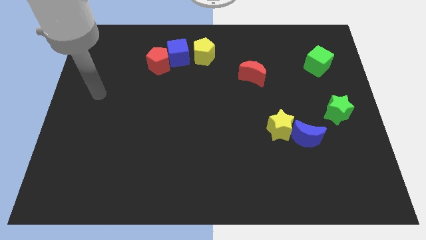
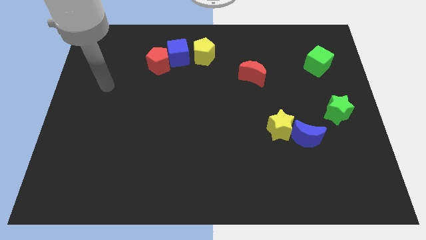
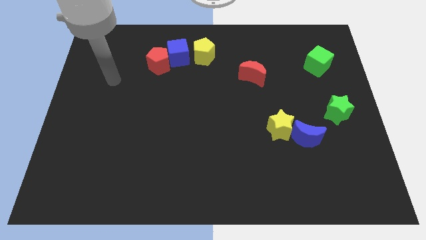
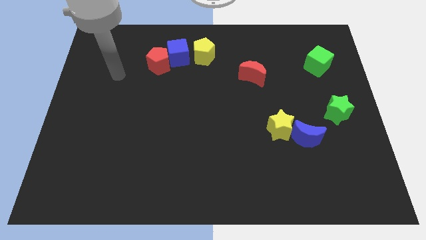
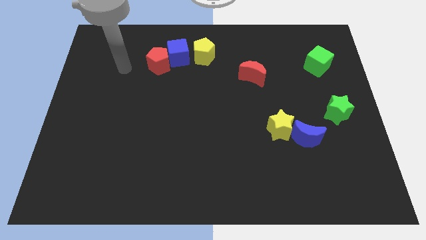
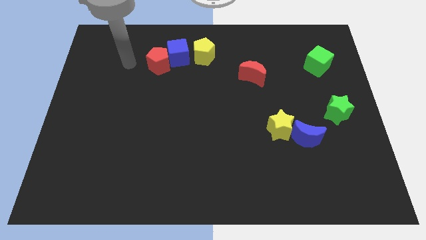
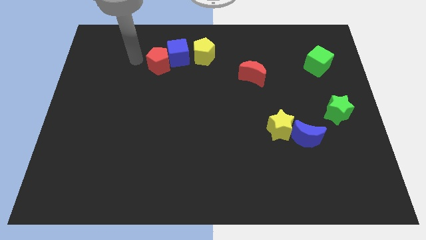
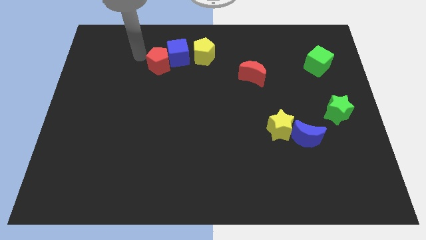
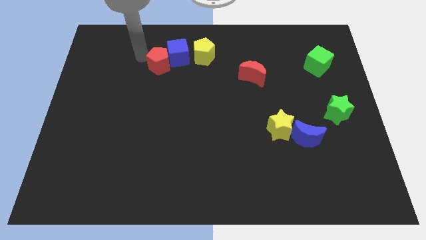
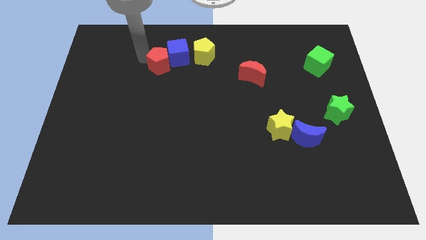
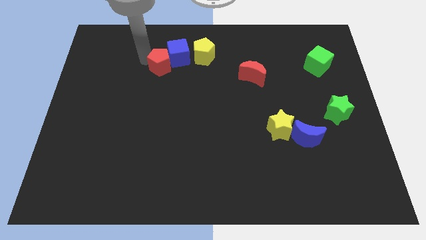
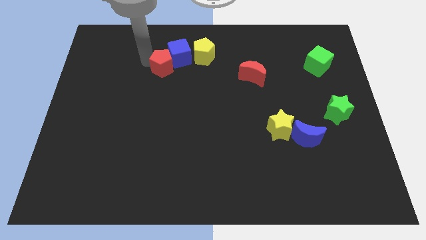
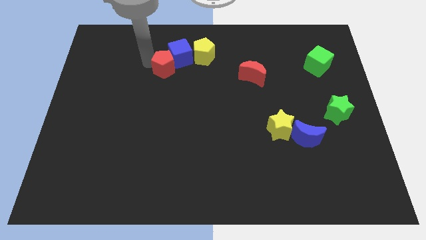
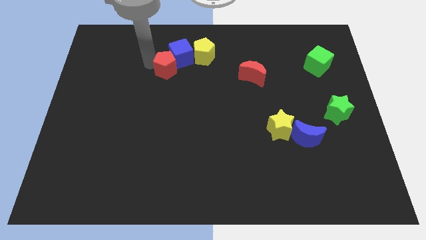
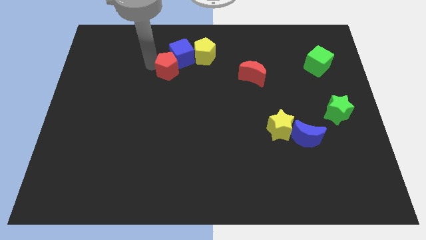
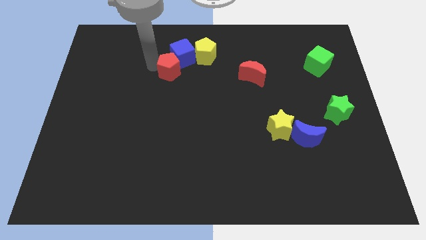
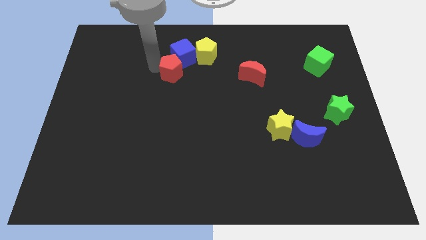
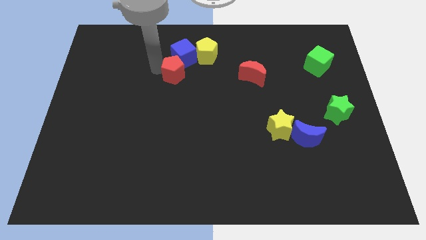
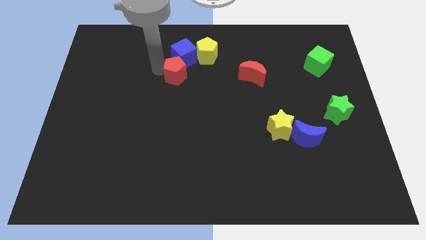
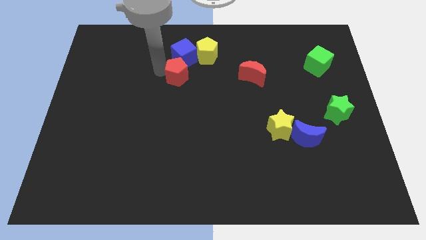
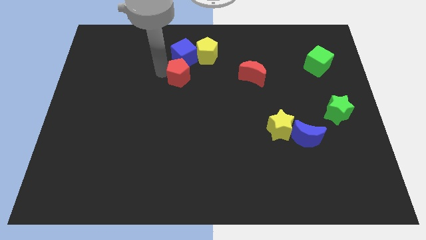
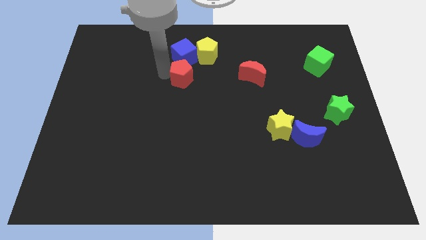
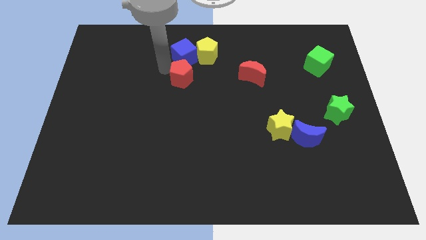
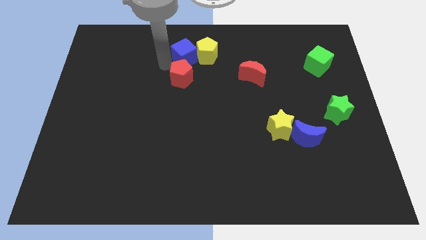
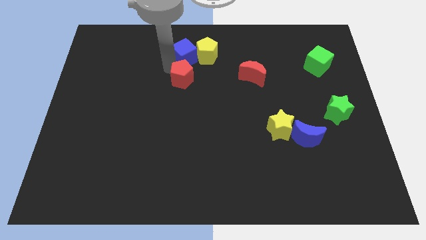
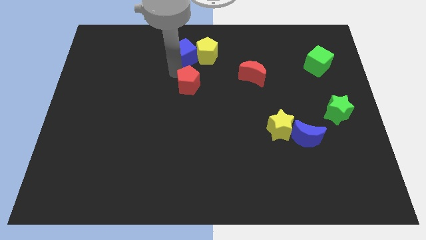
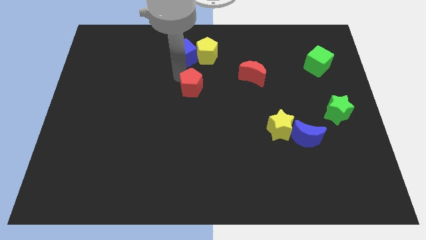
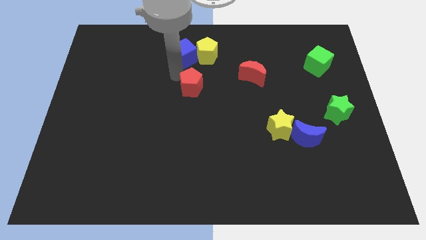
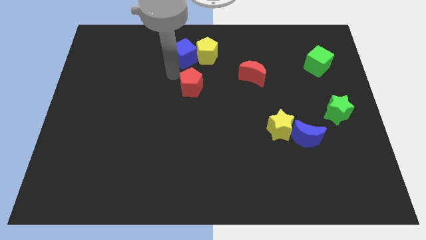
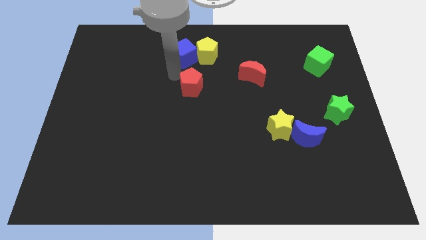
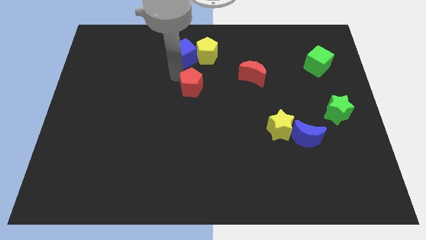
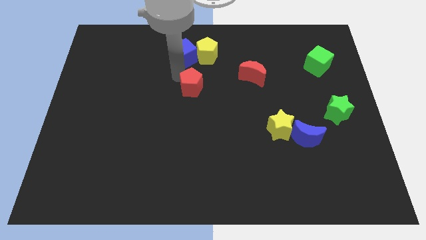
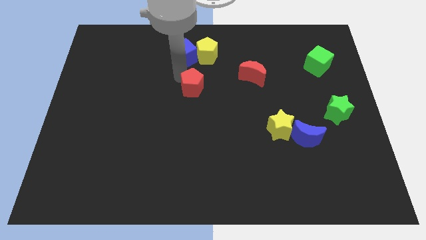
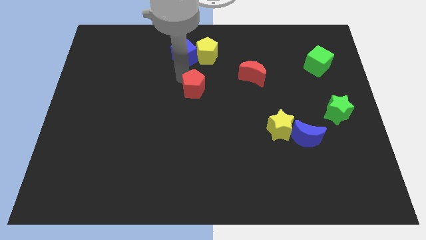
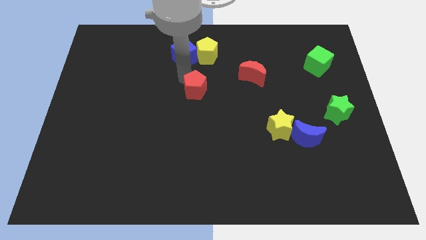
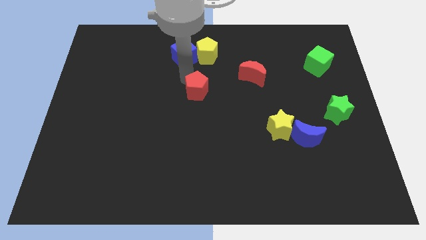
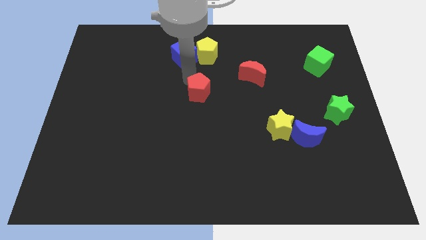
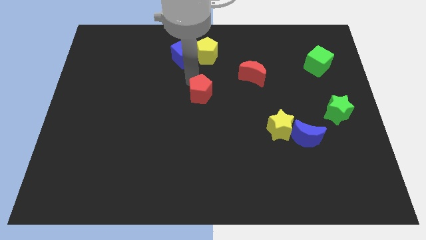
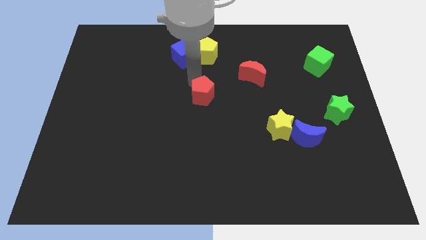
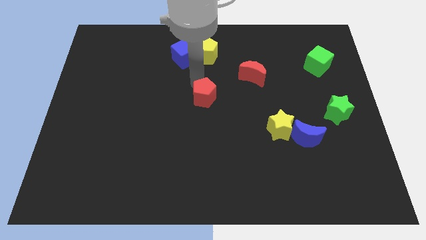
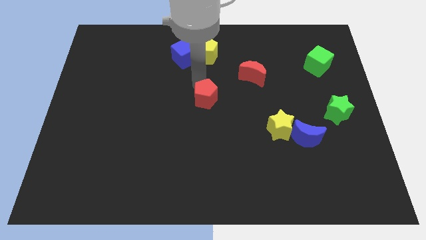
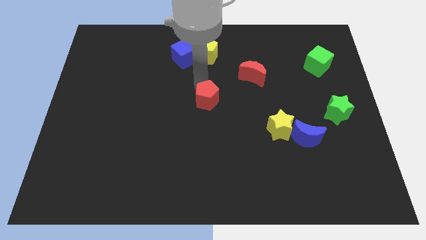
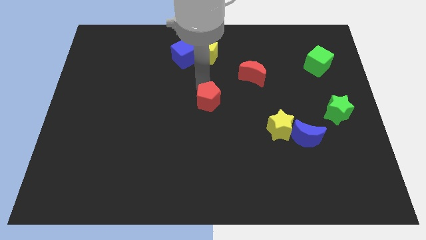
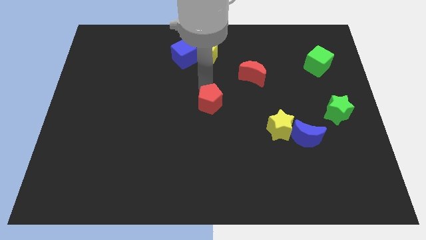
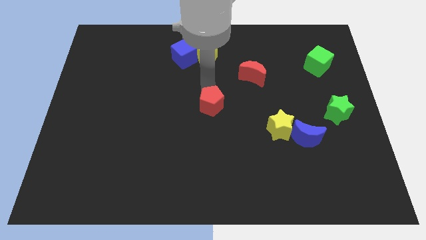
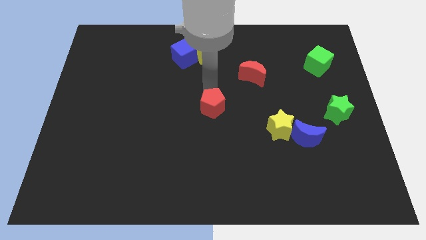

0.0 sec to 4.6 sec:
push the red pentagon diagonally downwards and right

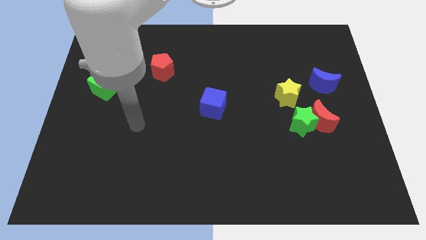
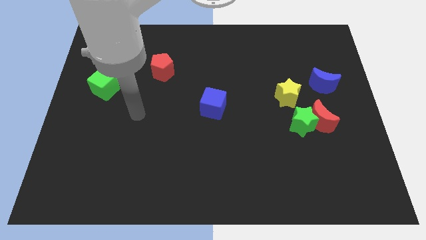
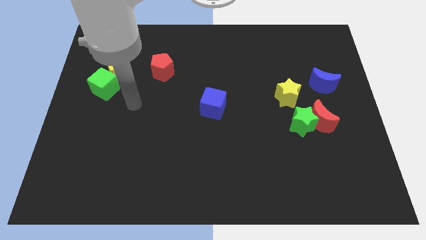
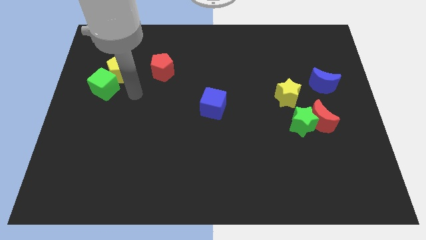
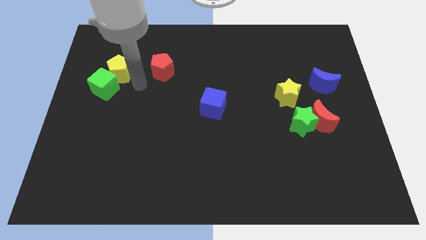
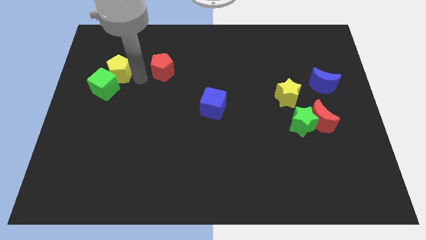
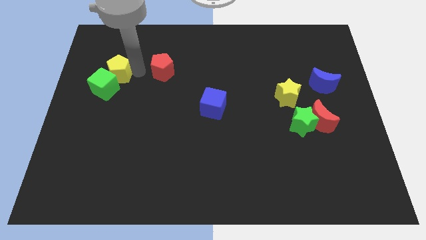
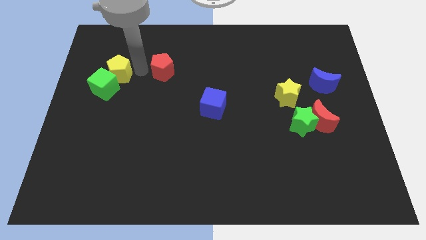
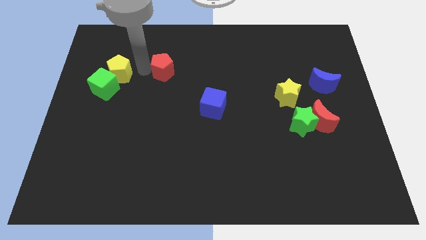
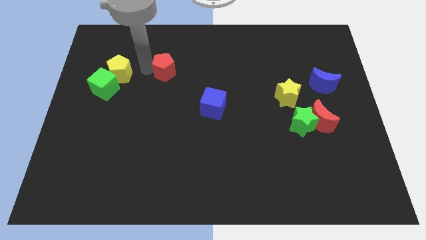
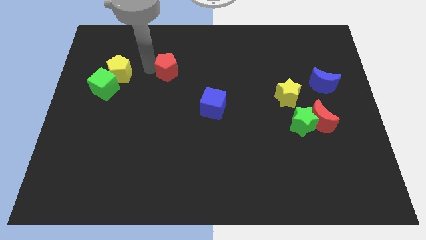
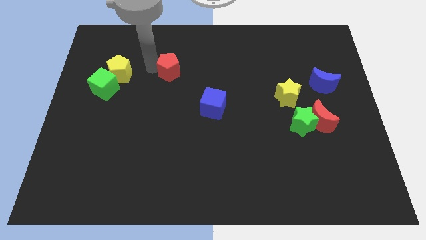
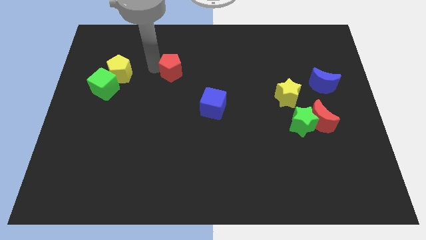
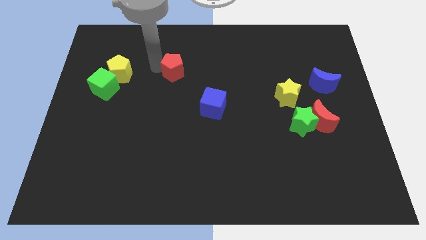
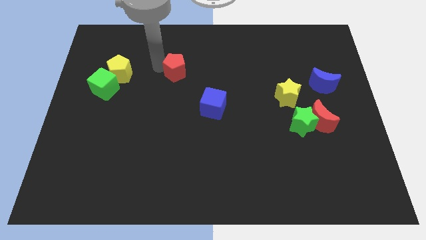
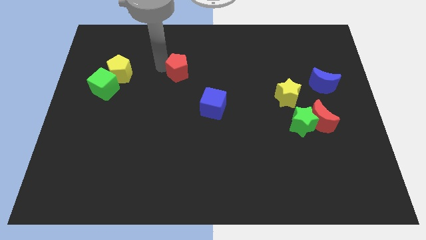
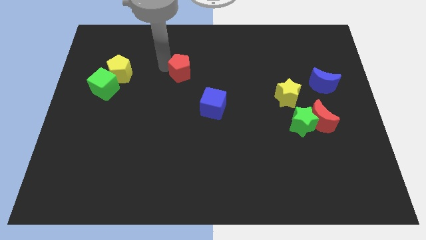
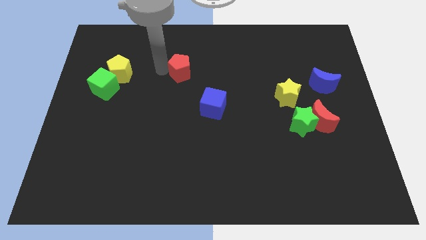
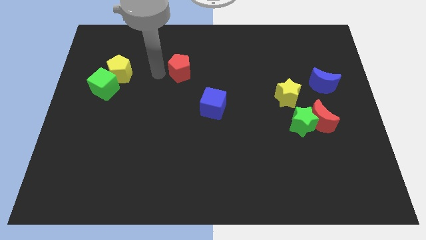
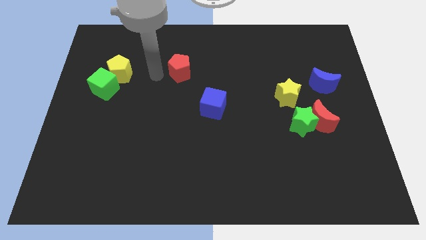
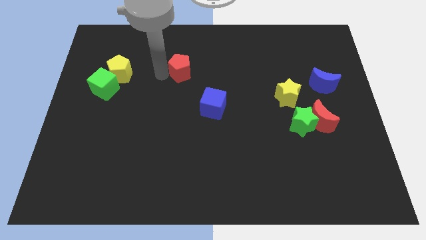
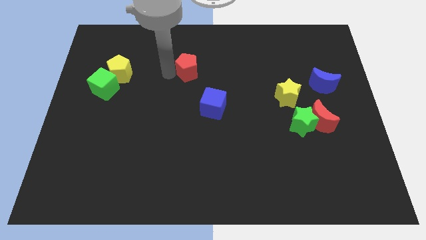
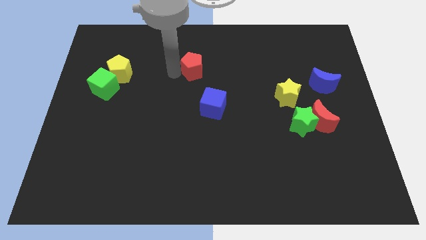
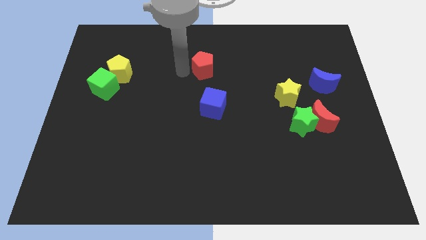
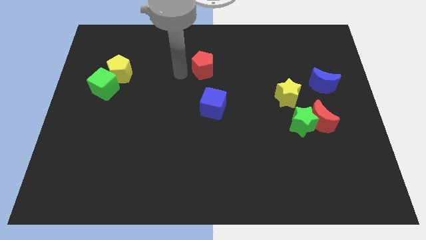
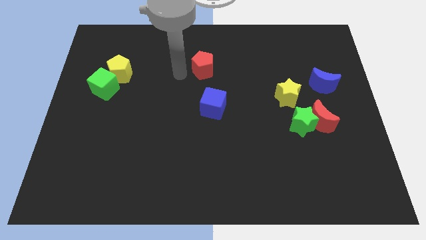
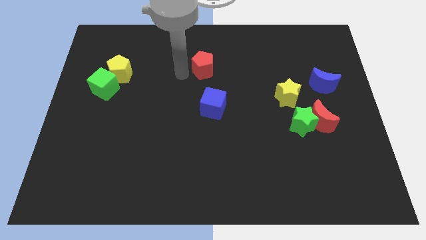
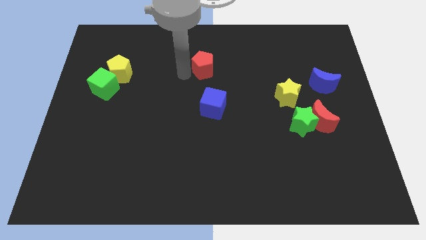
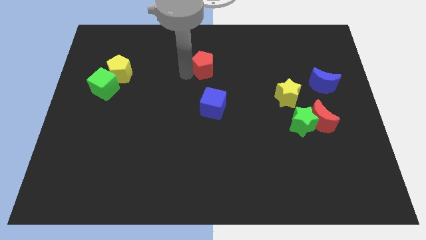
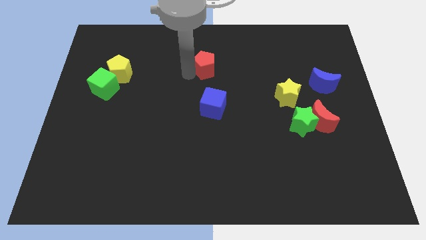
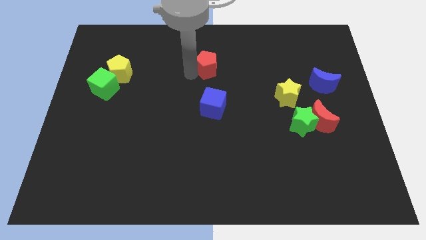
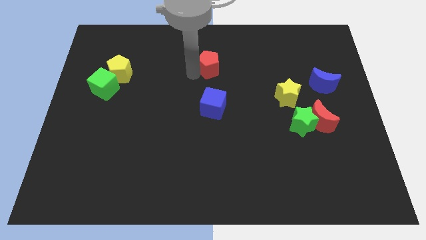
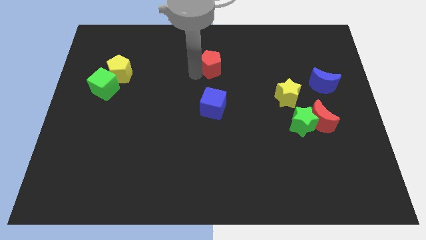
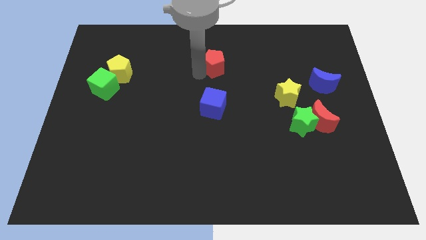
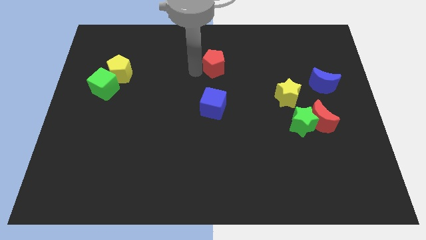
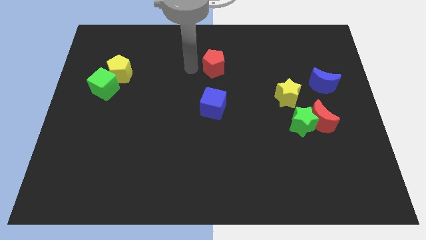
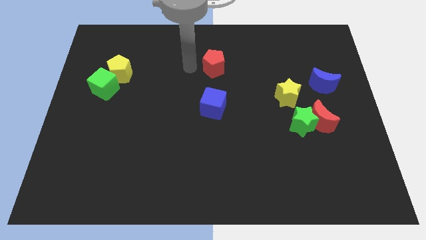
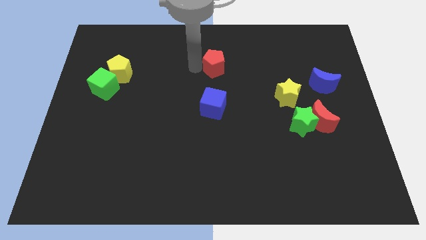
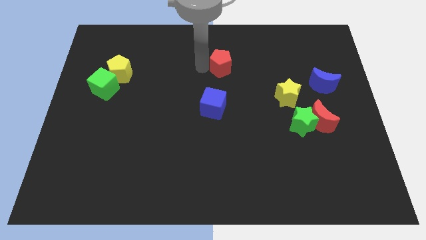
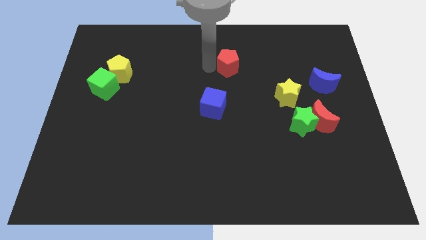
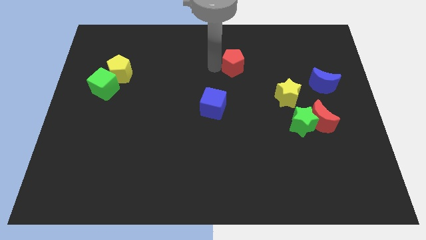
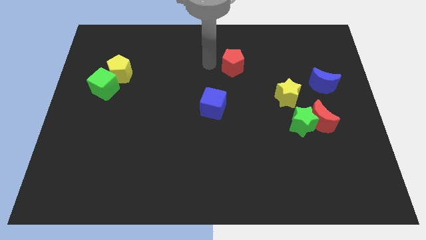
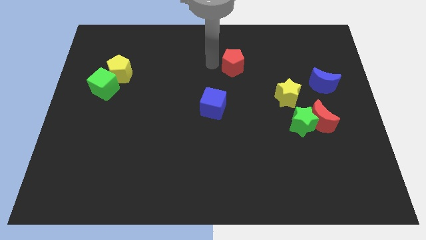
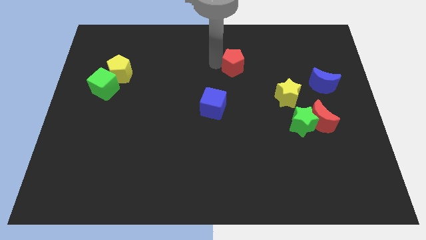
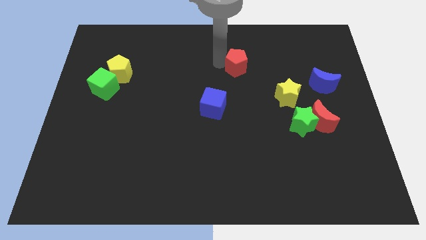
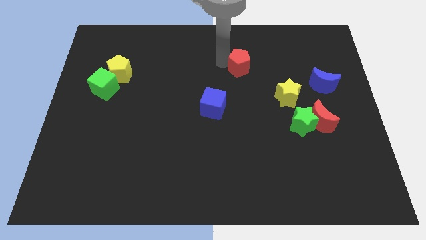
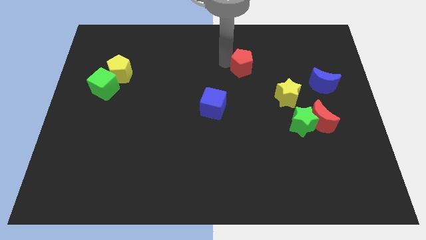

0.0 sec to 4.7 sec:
push the red pentagon to the right
